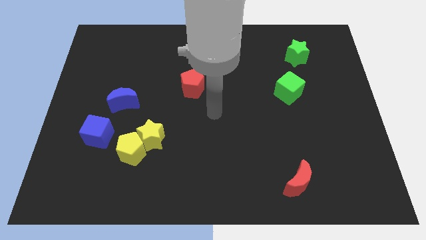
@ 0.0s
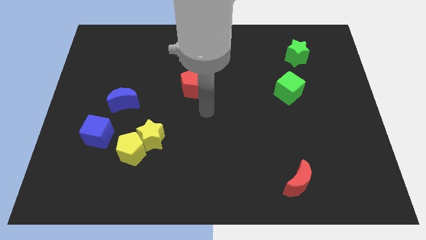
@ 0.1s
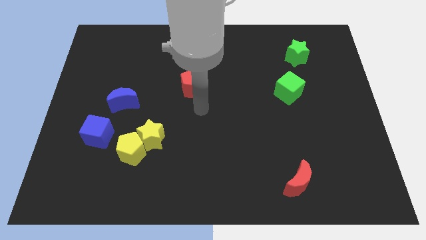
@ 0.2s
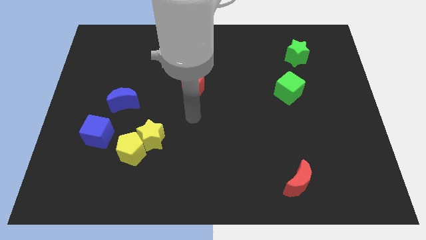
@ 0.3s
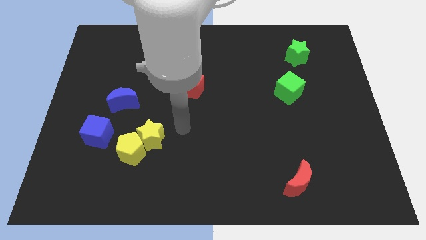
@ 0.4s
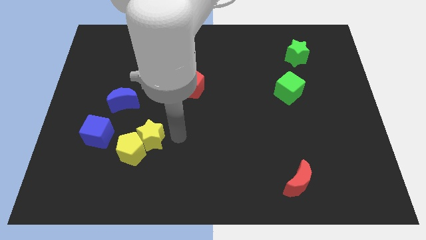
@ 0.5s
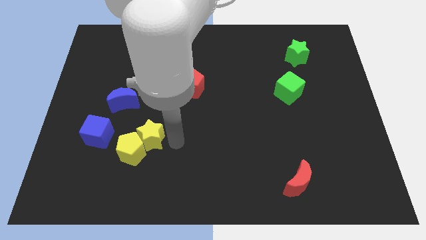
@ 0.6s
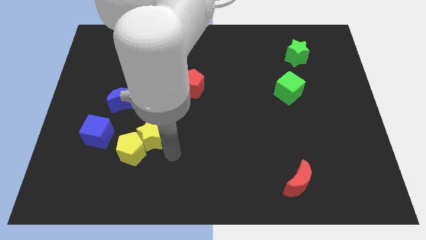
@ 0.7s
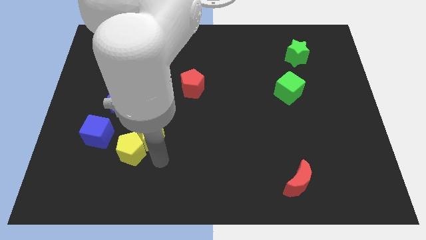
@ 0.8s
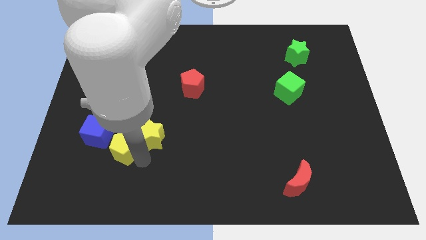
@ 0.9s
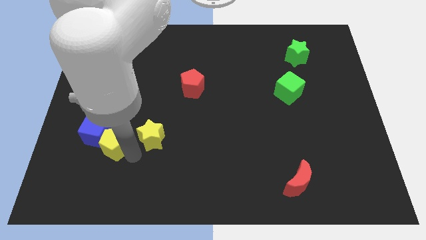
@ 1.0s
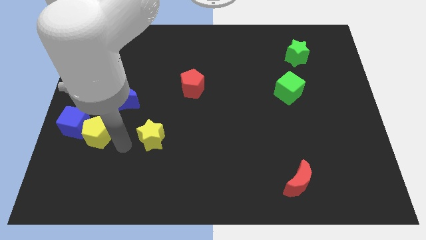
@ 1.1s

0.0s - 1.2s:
pull the yellow star apart from the yellow pentagon

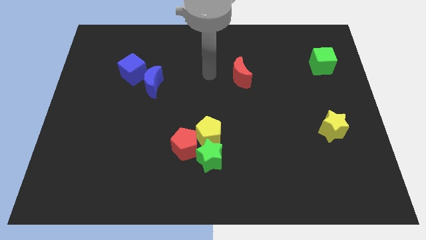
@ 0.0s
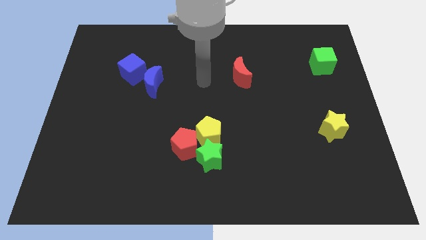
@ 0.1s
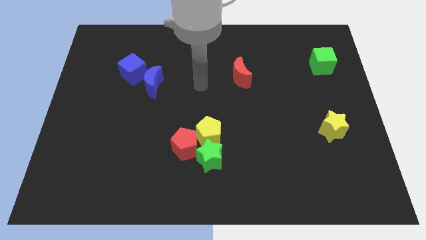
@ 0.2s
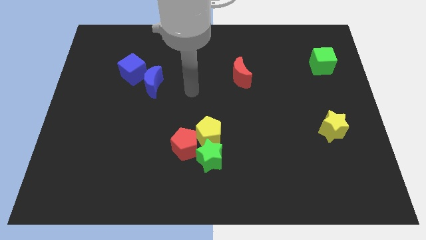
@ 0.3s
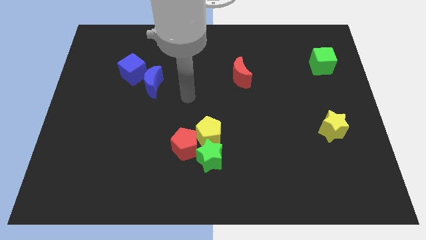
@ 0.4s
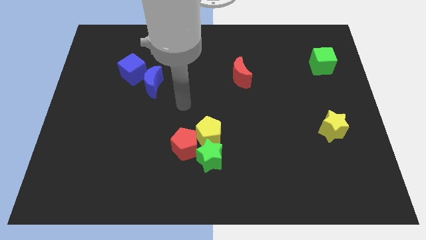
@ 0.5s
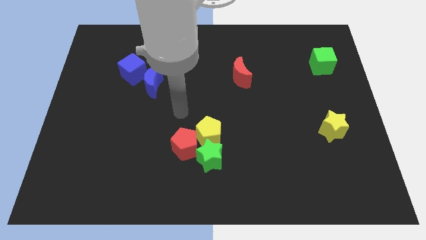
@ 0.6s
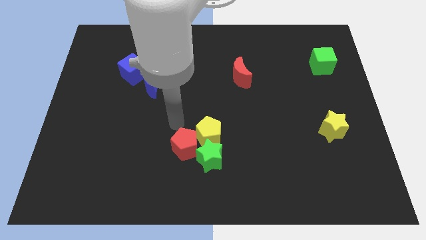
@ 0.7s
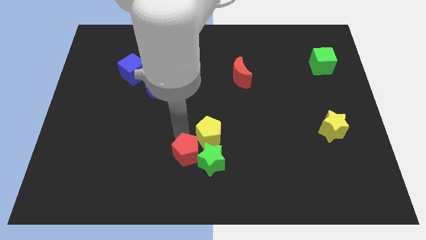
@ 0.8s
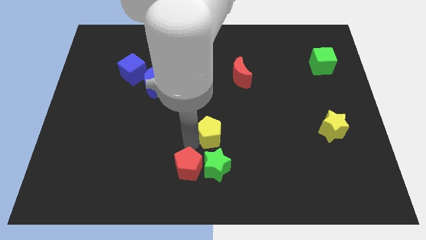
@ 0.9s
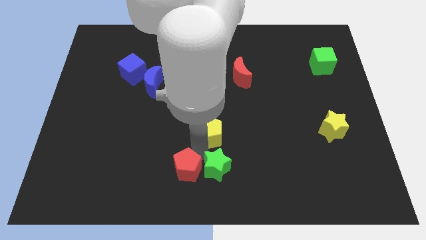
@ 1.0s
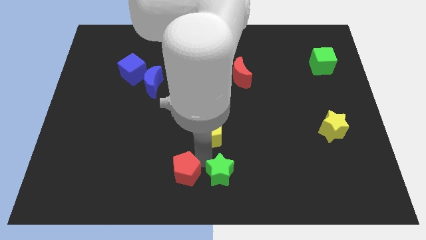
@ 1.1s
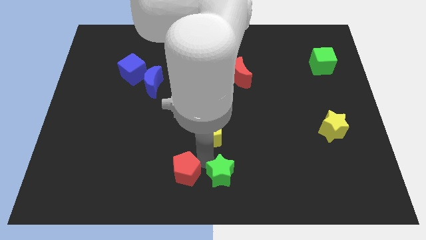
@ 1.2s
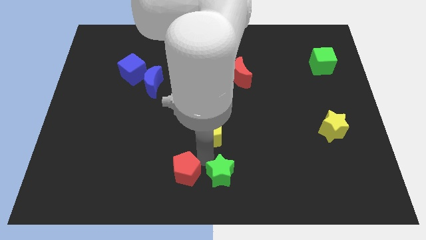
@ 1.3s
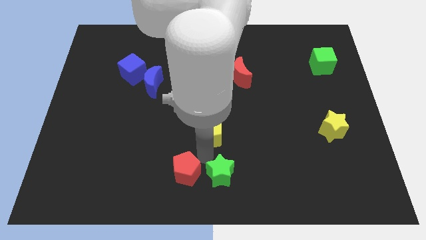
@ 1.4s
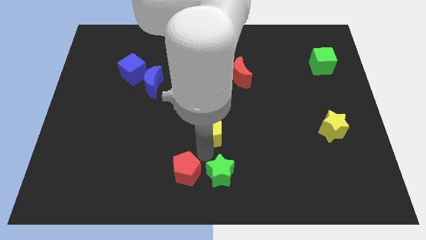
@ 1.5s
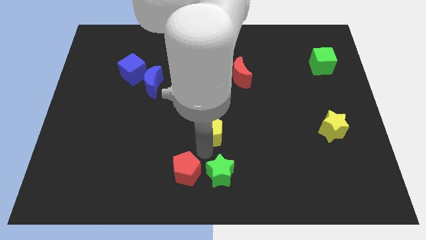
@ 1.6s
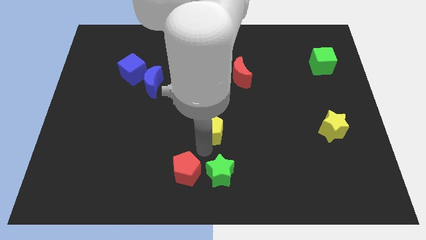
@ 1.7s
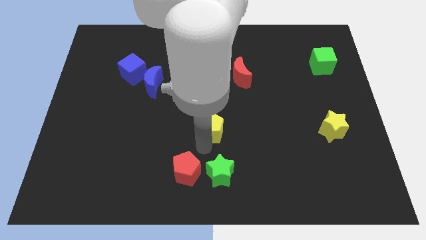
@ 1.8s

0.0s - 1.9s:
separate the yellow pentagon from the red pentagon and green star

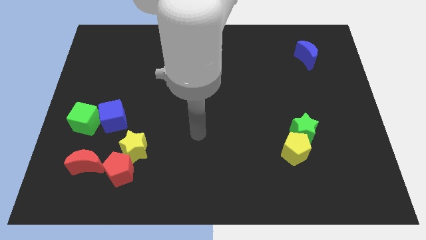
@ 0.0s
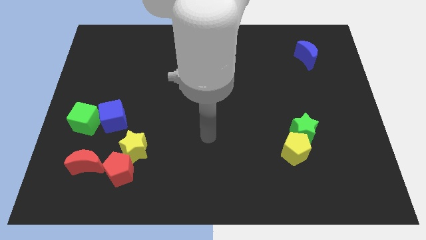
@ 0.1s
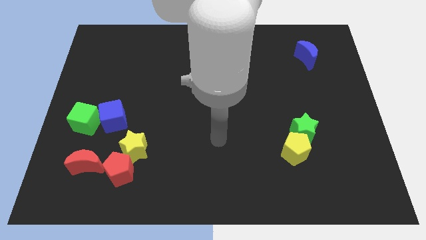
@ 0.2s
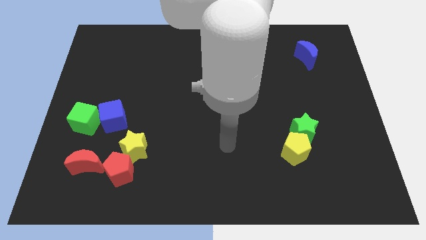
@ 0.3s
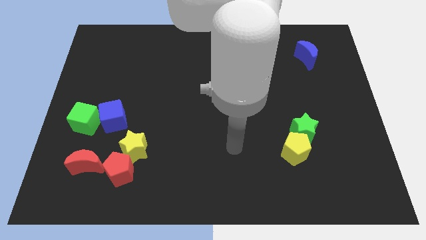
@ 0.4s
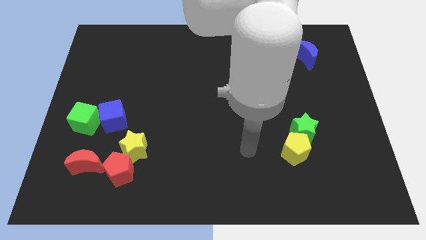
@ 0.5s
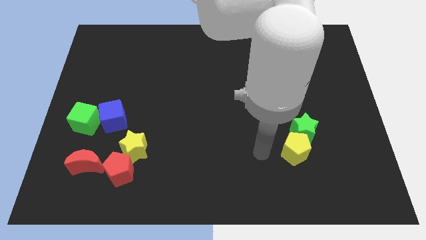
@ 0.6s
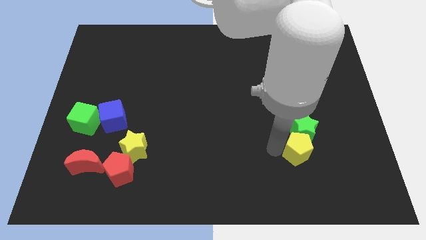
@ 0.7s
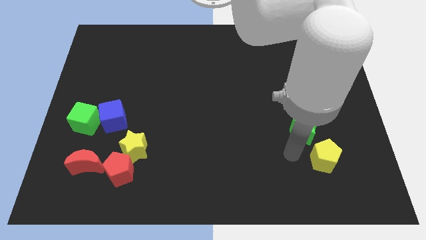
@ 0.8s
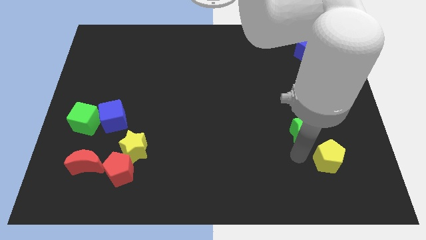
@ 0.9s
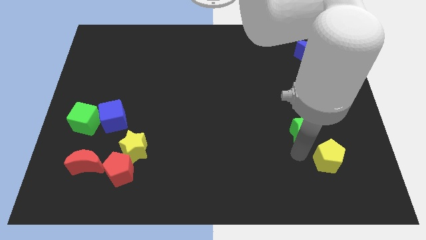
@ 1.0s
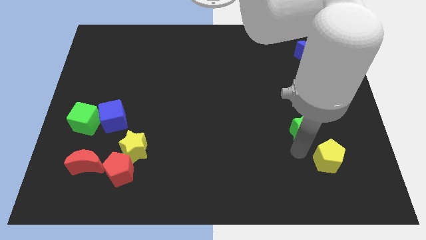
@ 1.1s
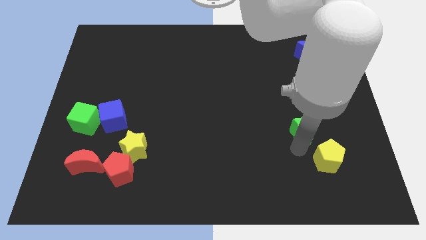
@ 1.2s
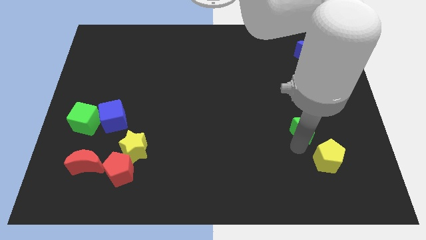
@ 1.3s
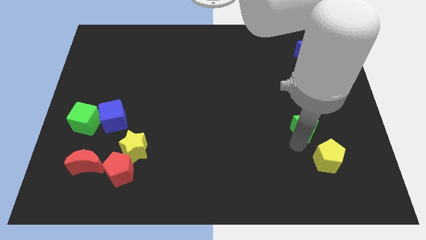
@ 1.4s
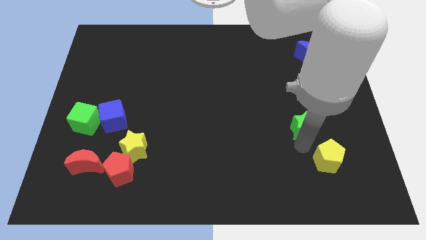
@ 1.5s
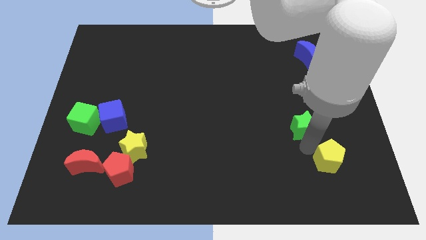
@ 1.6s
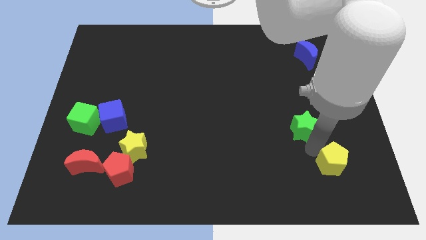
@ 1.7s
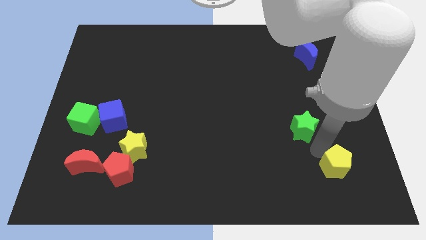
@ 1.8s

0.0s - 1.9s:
pull the green star apart from the yellow pentagon

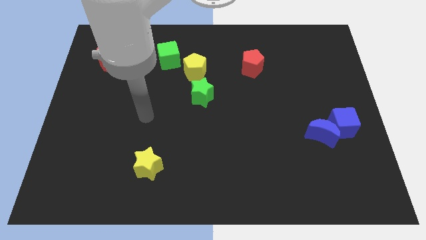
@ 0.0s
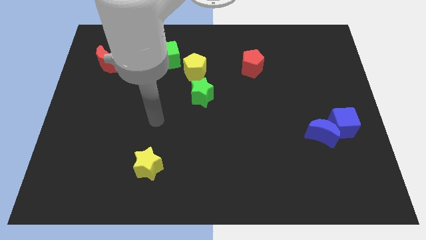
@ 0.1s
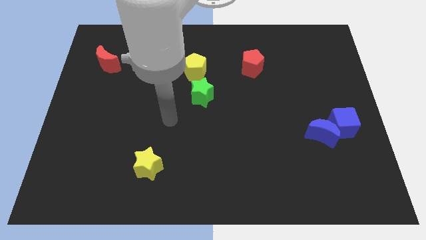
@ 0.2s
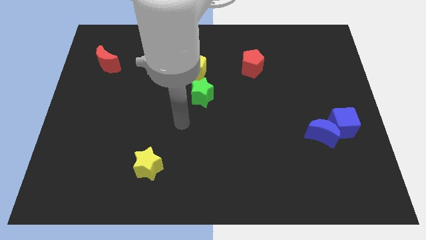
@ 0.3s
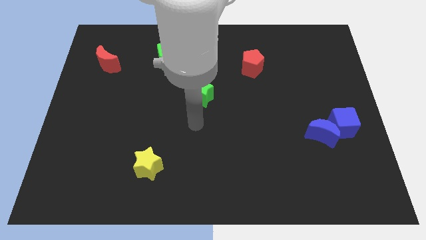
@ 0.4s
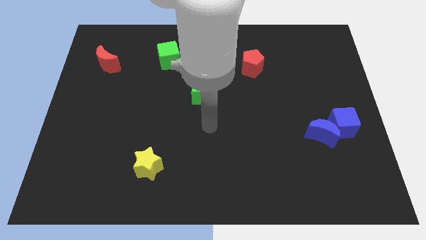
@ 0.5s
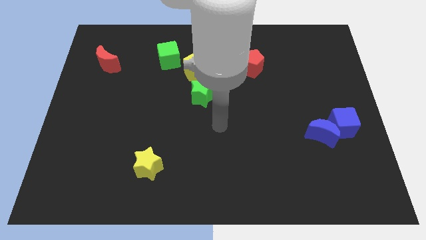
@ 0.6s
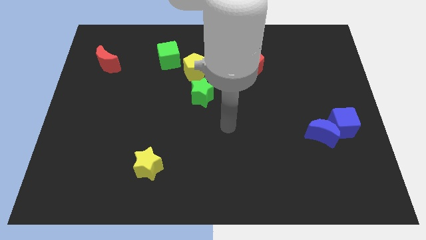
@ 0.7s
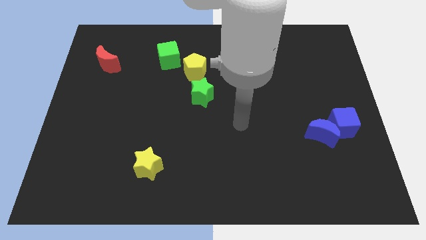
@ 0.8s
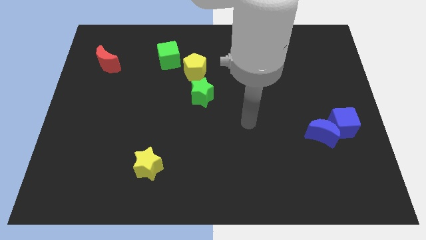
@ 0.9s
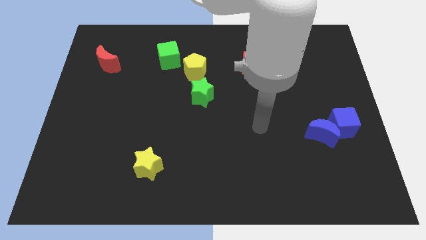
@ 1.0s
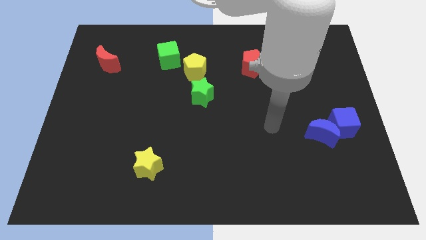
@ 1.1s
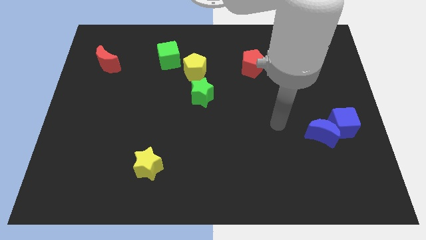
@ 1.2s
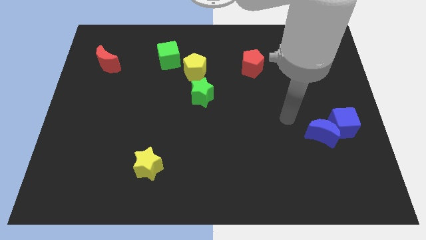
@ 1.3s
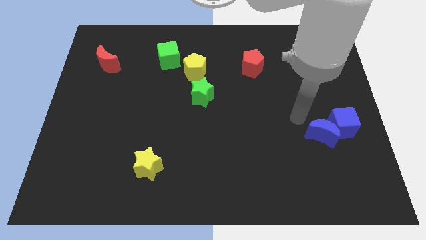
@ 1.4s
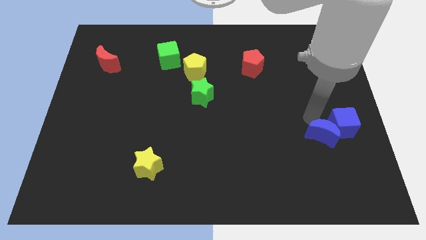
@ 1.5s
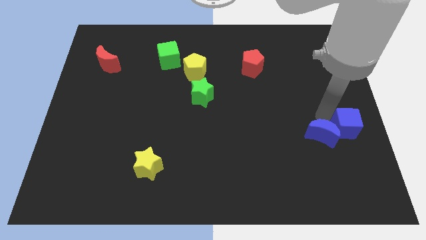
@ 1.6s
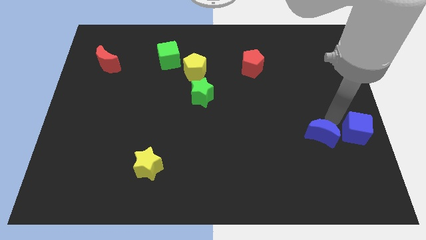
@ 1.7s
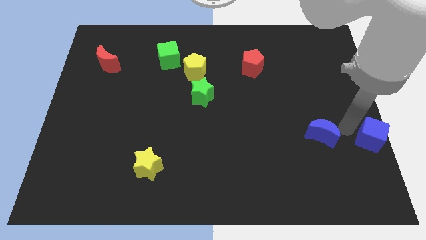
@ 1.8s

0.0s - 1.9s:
separate the blue moon from the blue cube

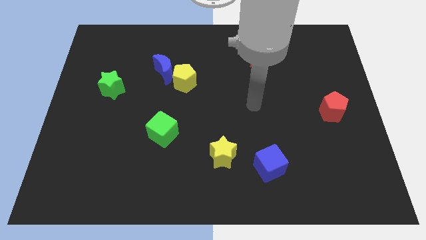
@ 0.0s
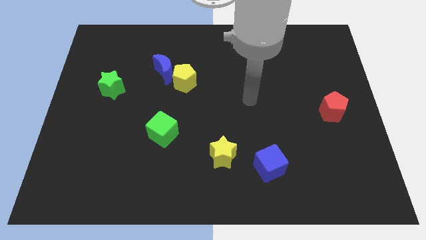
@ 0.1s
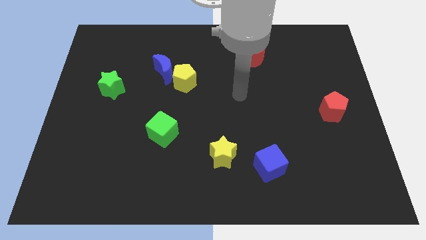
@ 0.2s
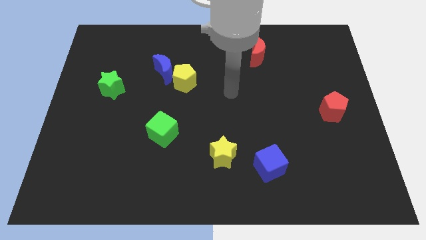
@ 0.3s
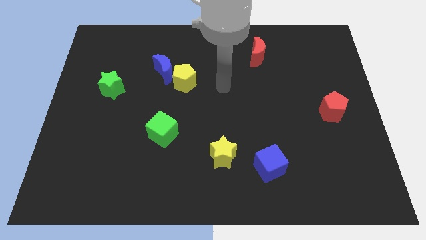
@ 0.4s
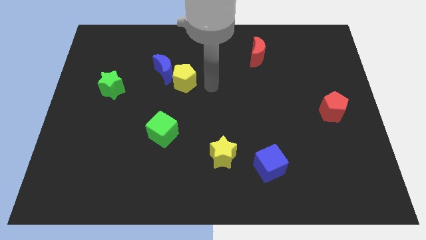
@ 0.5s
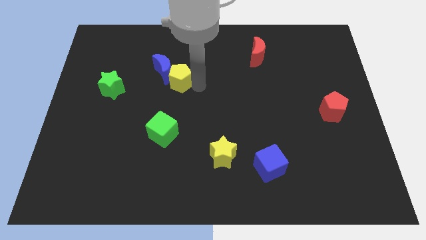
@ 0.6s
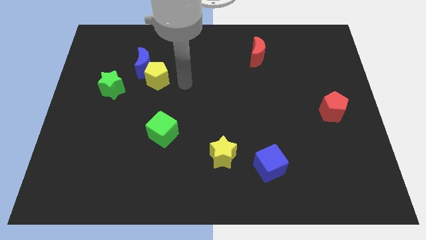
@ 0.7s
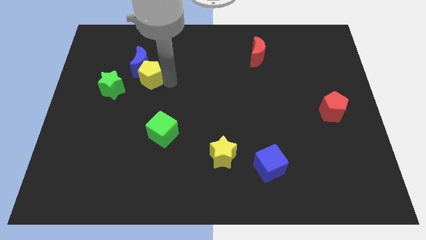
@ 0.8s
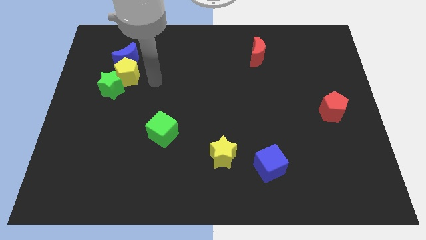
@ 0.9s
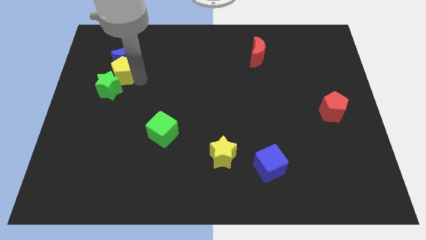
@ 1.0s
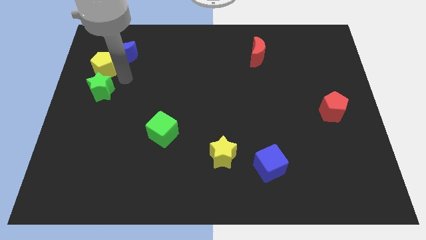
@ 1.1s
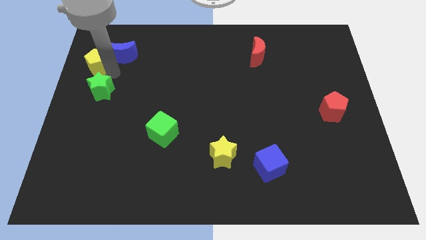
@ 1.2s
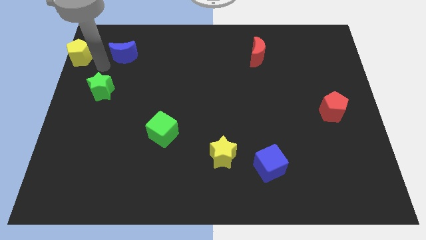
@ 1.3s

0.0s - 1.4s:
separate the blue moon from the yellow pentagon

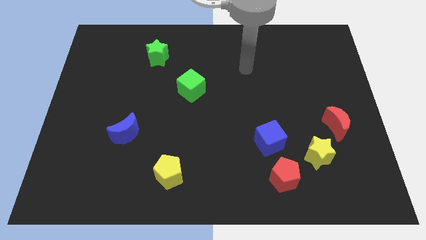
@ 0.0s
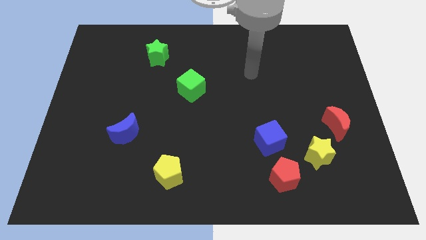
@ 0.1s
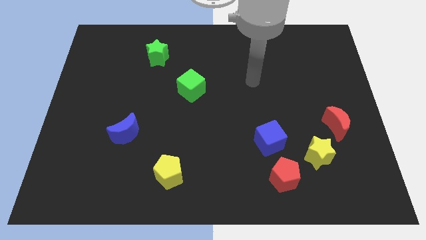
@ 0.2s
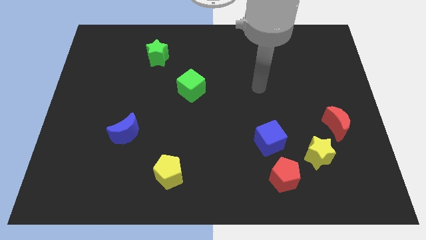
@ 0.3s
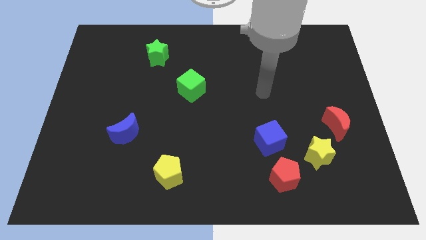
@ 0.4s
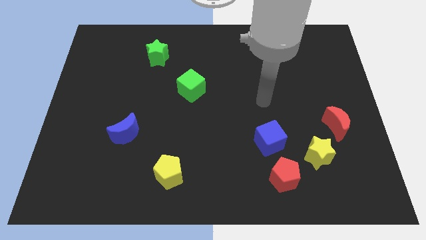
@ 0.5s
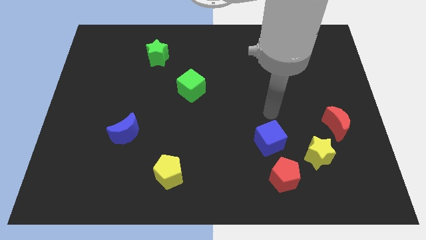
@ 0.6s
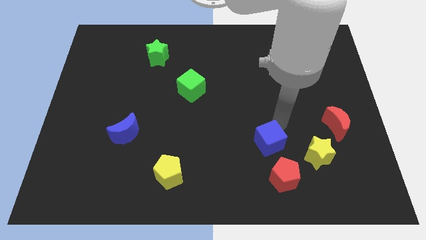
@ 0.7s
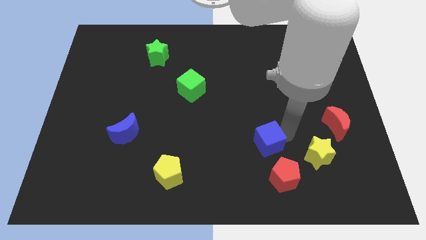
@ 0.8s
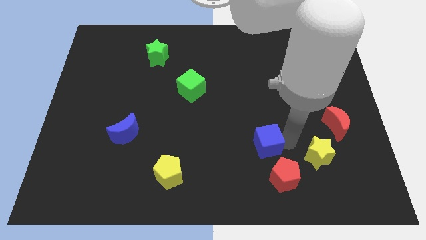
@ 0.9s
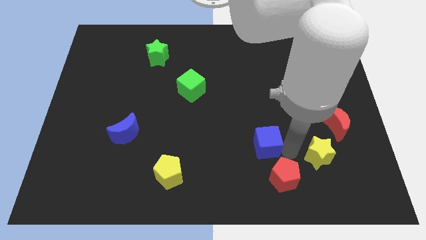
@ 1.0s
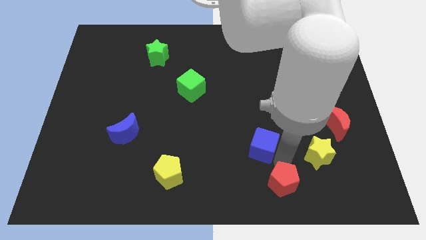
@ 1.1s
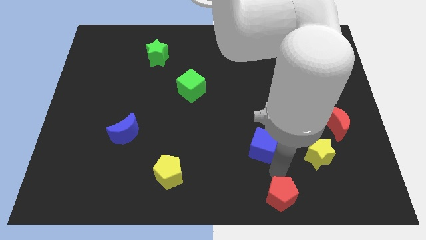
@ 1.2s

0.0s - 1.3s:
pull the blue cube apart from the red pentagon
